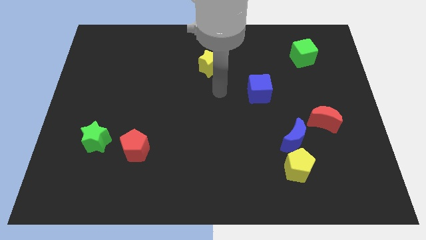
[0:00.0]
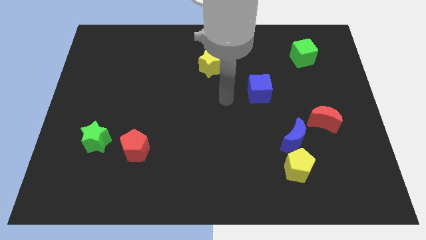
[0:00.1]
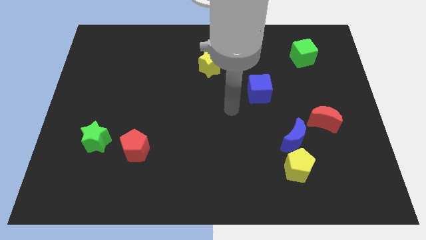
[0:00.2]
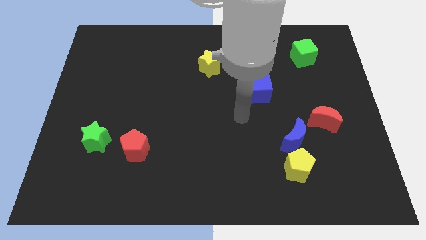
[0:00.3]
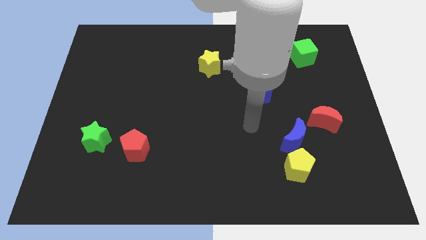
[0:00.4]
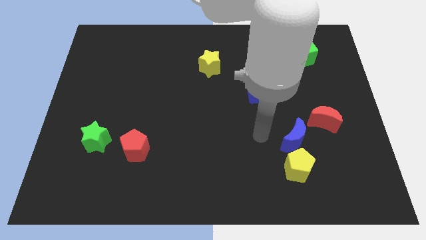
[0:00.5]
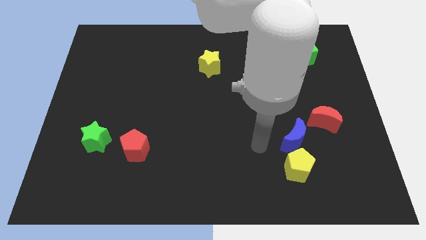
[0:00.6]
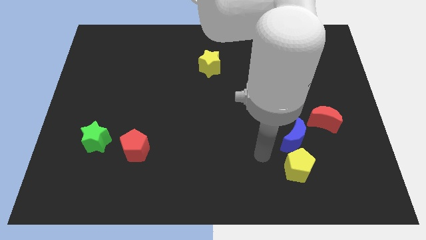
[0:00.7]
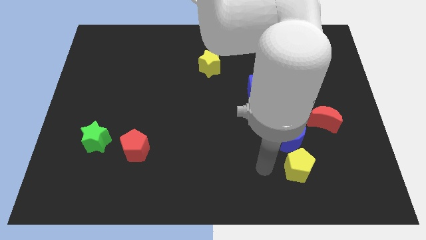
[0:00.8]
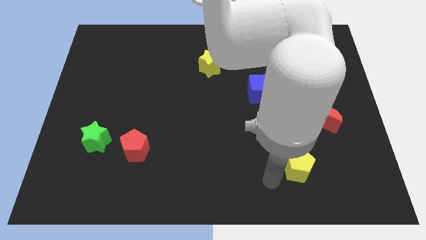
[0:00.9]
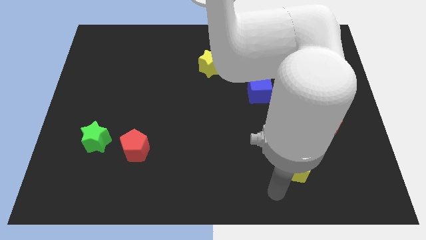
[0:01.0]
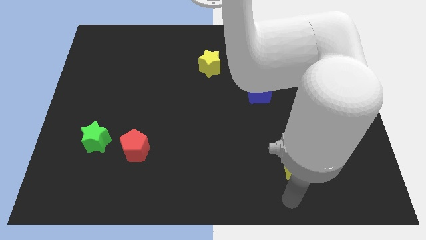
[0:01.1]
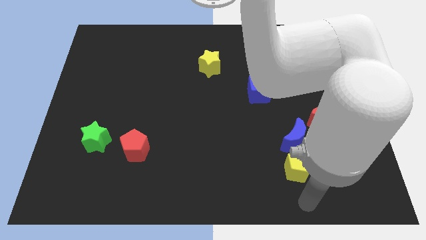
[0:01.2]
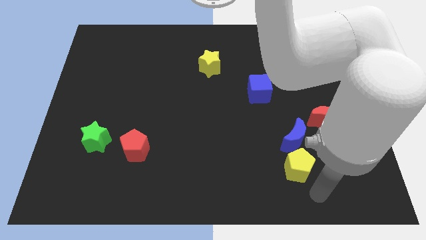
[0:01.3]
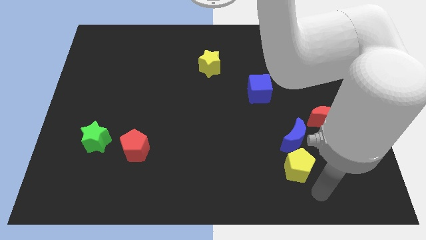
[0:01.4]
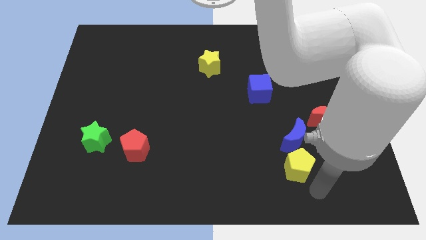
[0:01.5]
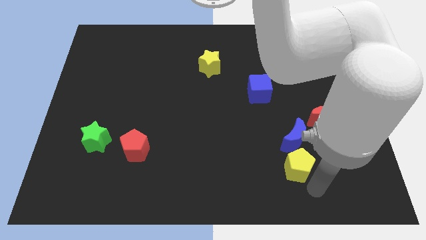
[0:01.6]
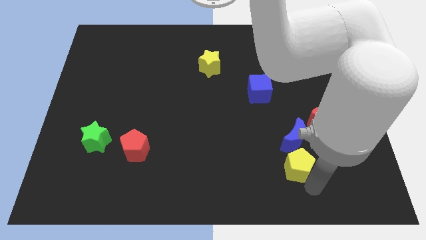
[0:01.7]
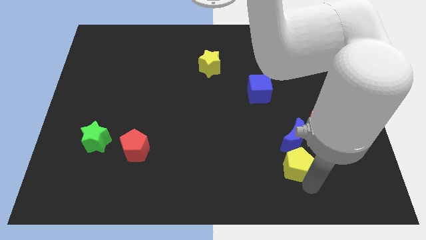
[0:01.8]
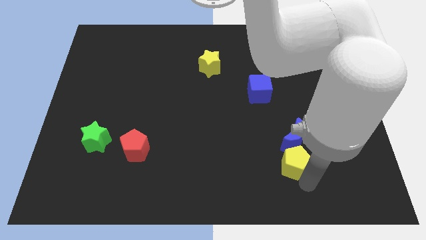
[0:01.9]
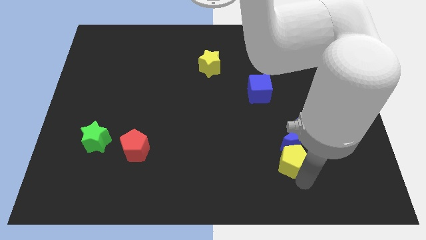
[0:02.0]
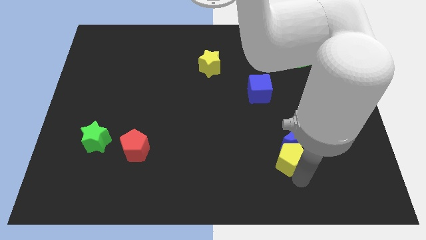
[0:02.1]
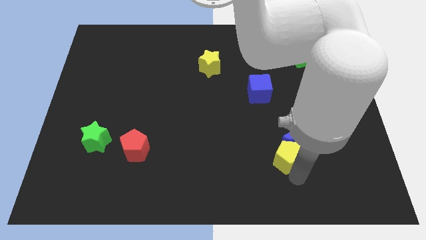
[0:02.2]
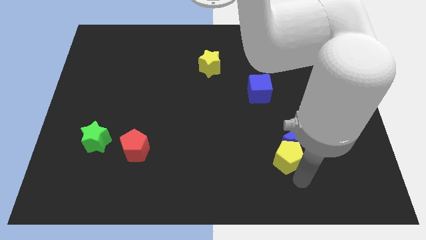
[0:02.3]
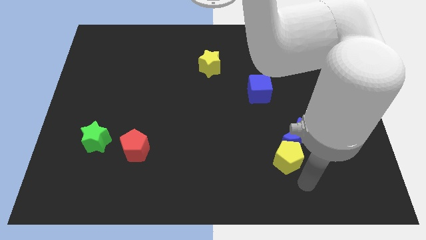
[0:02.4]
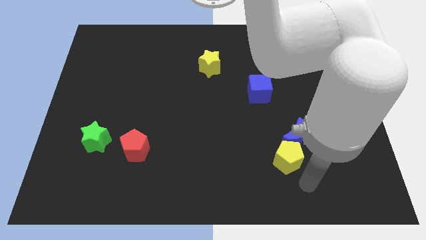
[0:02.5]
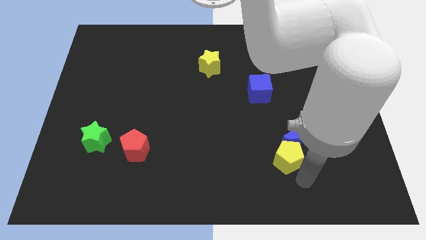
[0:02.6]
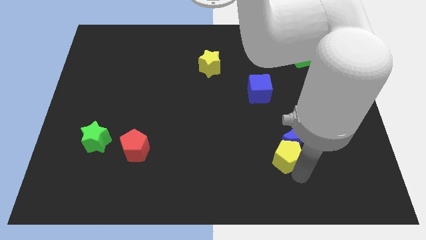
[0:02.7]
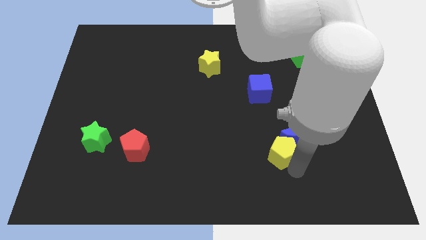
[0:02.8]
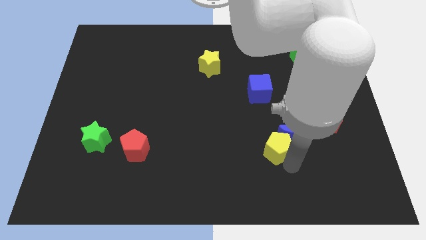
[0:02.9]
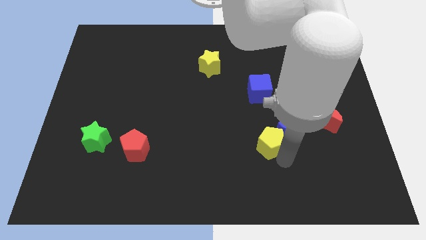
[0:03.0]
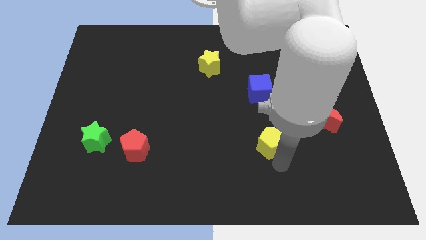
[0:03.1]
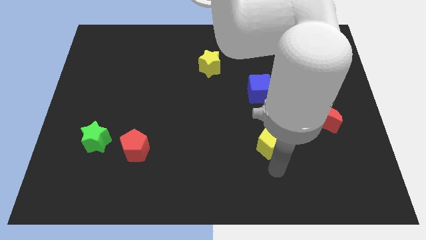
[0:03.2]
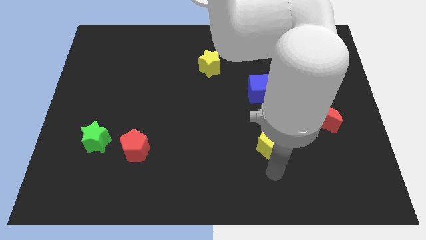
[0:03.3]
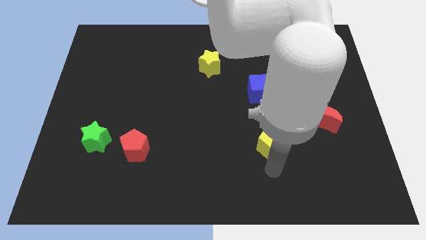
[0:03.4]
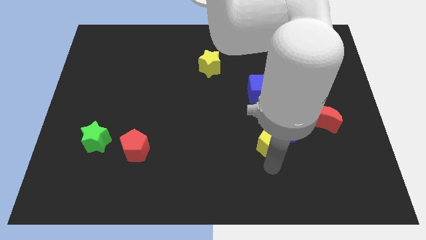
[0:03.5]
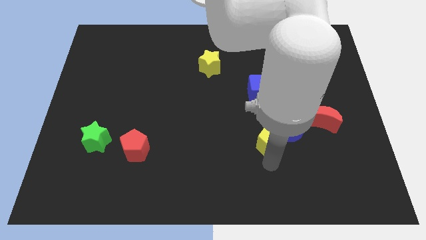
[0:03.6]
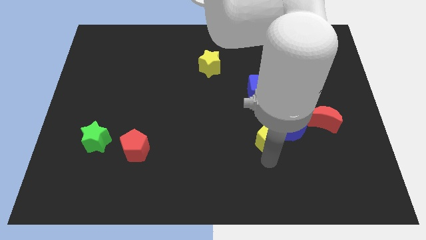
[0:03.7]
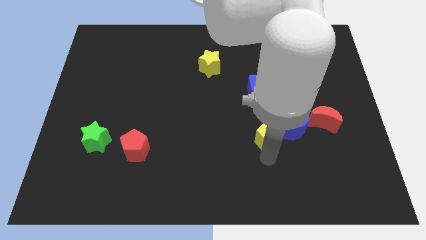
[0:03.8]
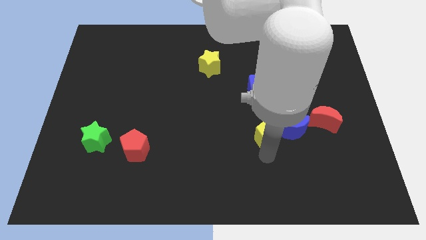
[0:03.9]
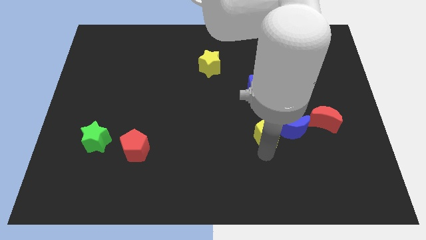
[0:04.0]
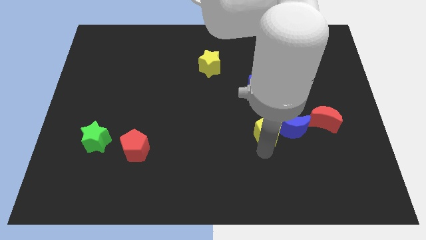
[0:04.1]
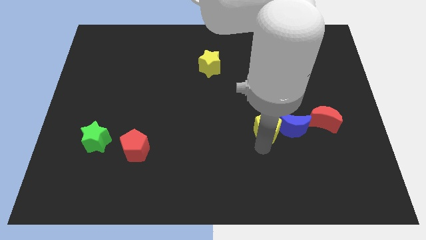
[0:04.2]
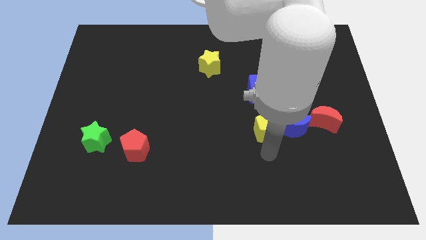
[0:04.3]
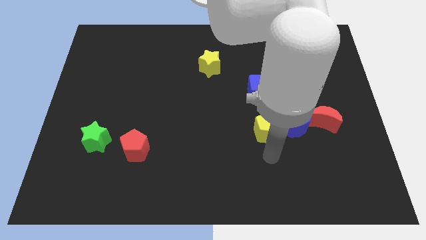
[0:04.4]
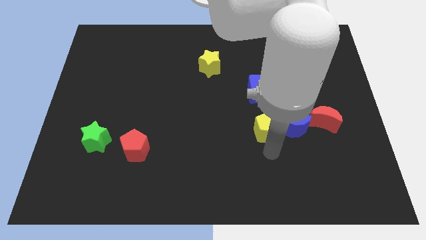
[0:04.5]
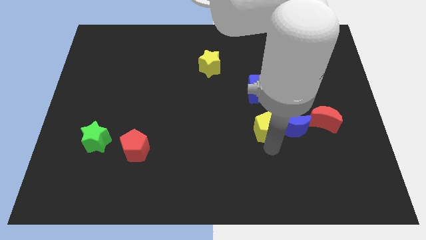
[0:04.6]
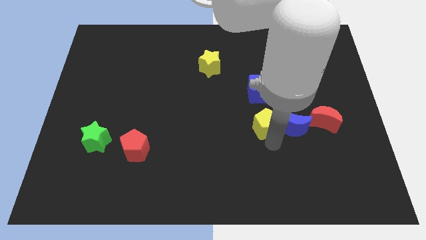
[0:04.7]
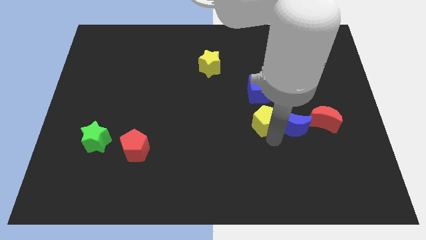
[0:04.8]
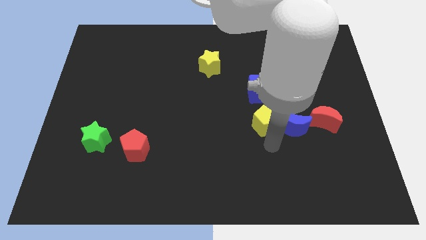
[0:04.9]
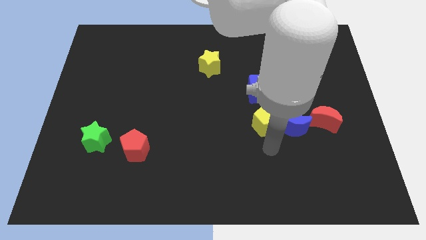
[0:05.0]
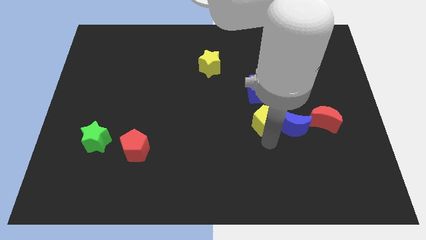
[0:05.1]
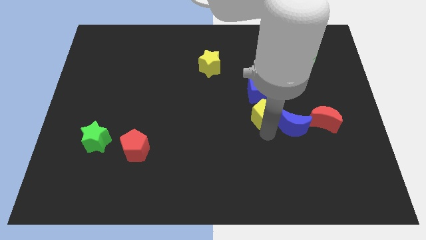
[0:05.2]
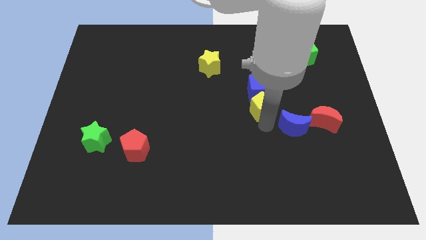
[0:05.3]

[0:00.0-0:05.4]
push the yellow pentagon towards the blue cube

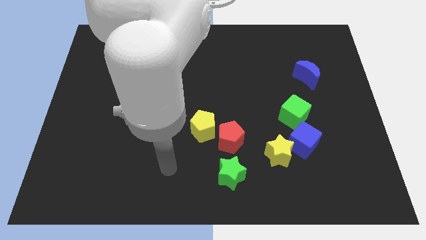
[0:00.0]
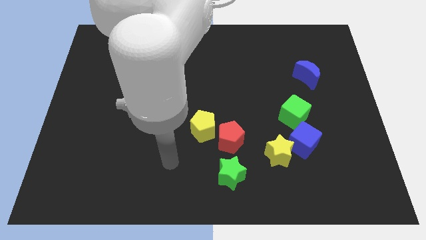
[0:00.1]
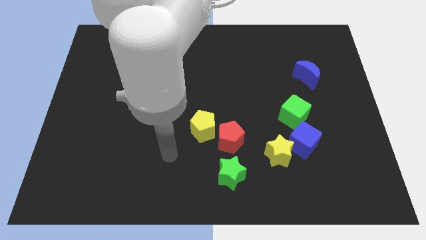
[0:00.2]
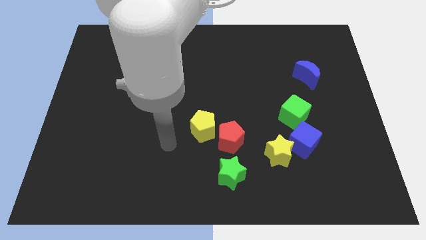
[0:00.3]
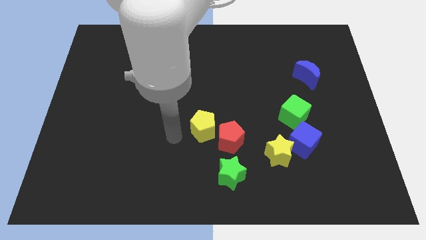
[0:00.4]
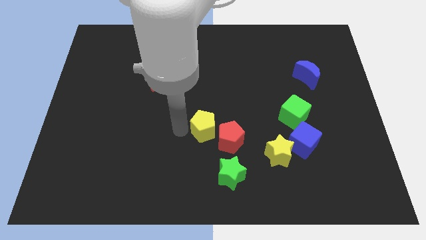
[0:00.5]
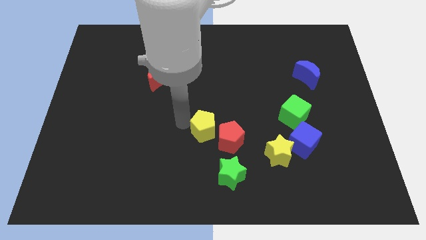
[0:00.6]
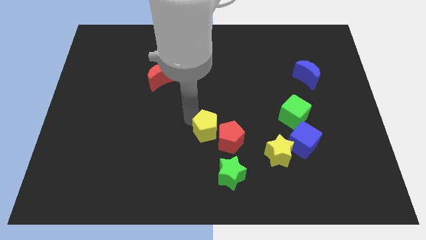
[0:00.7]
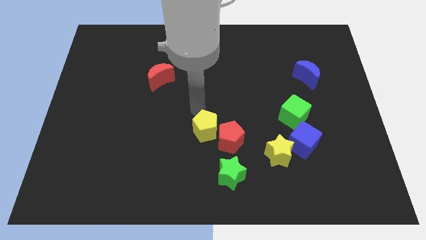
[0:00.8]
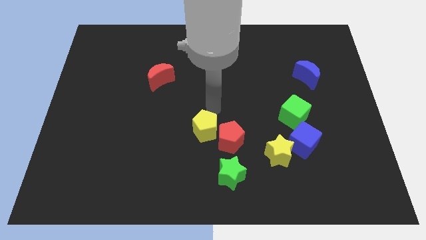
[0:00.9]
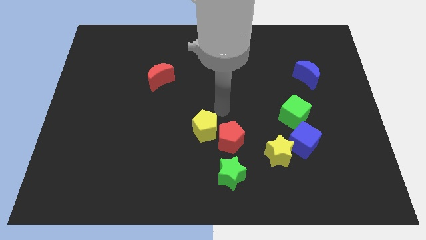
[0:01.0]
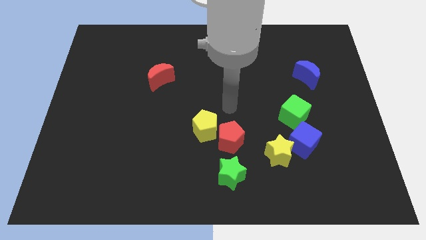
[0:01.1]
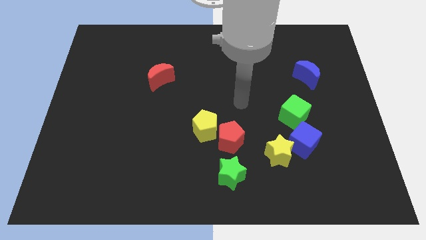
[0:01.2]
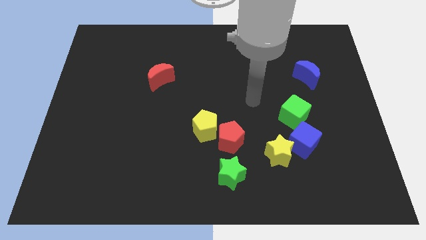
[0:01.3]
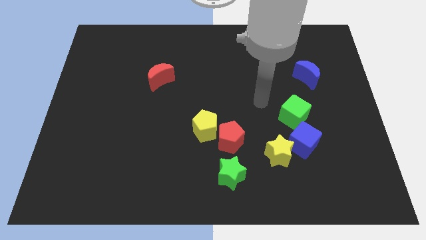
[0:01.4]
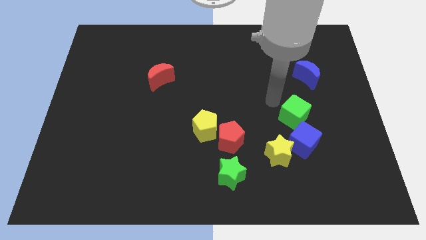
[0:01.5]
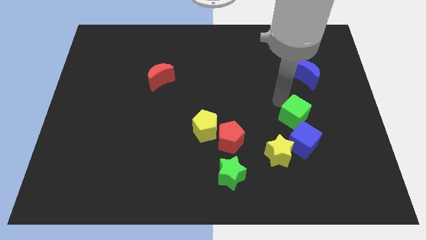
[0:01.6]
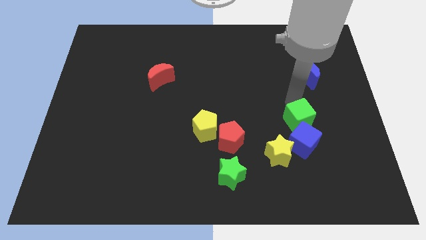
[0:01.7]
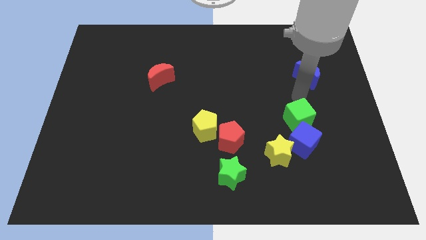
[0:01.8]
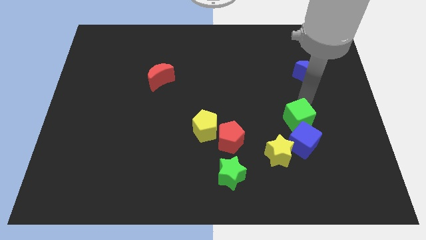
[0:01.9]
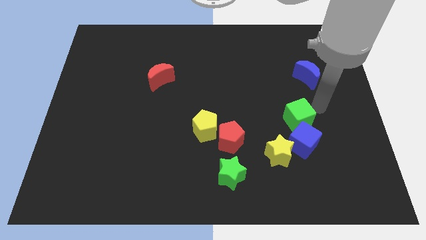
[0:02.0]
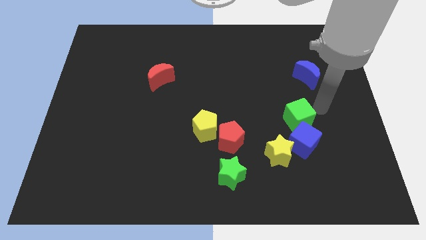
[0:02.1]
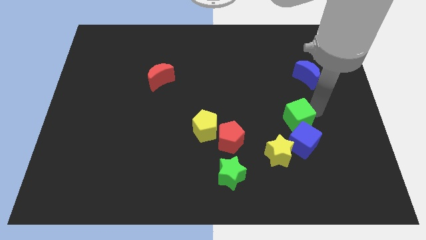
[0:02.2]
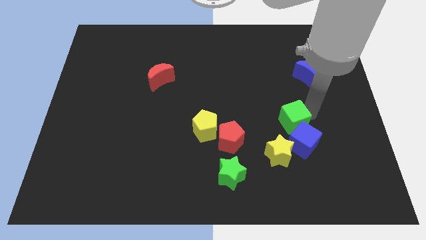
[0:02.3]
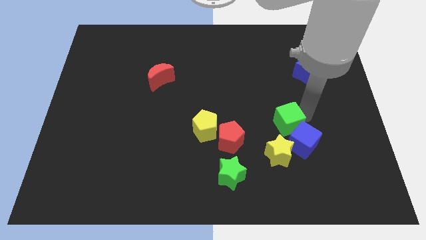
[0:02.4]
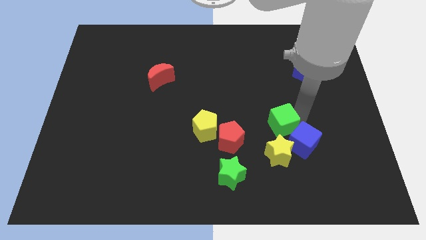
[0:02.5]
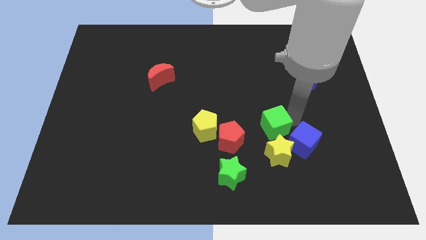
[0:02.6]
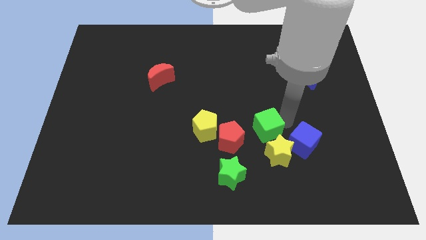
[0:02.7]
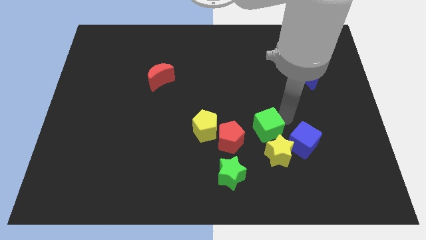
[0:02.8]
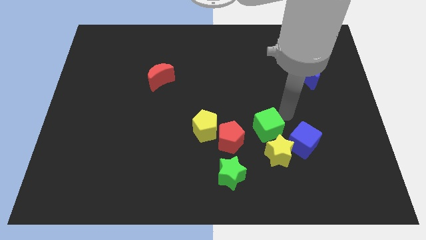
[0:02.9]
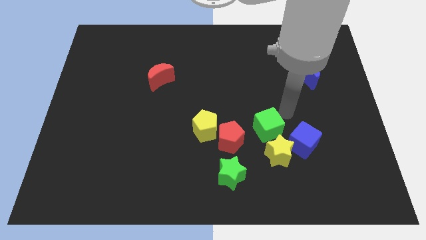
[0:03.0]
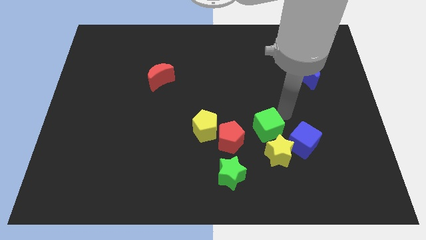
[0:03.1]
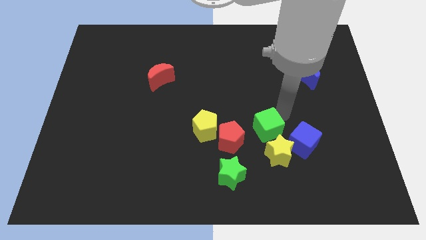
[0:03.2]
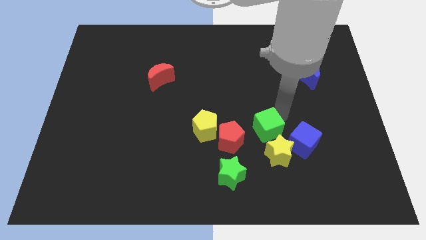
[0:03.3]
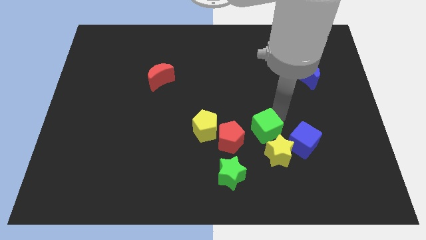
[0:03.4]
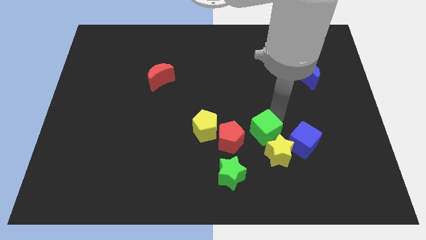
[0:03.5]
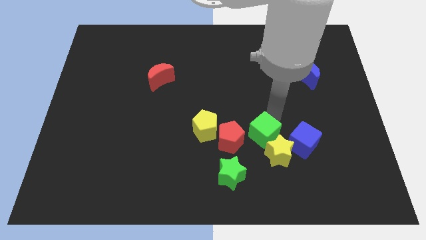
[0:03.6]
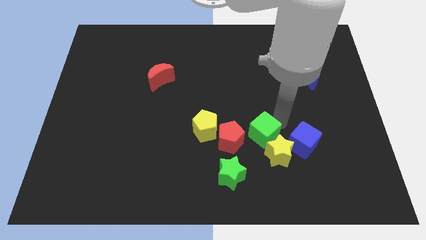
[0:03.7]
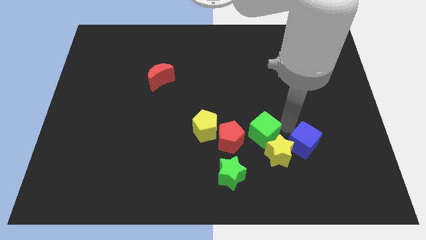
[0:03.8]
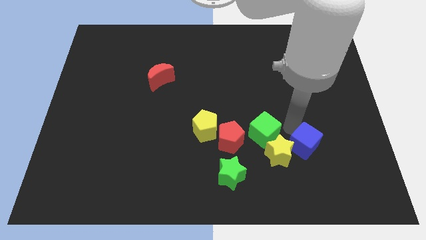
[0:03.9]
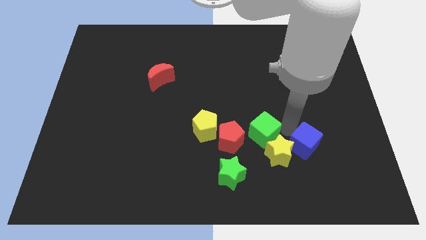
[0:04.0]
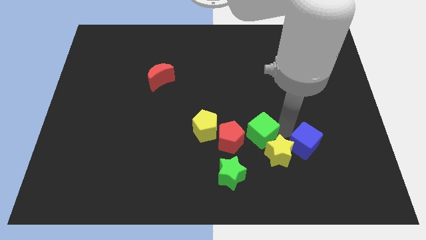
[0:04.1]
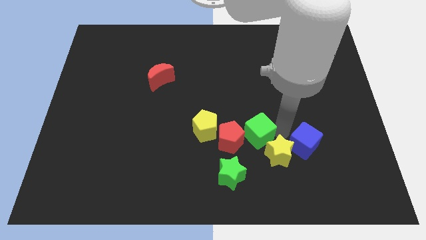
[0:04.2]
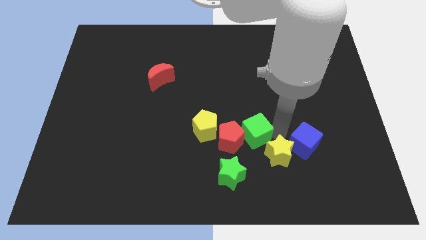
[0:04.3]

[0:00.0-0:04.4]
push the green cube close to the red pentagon
